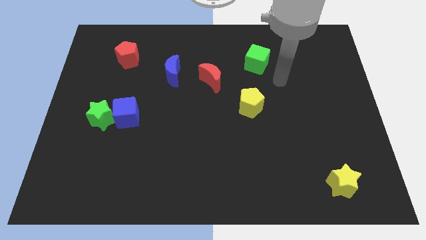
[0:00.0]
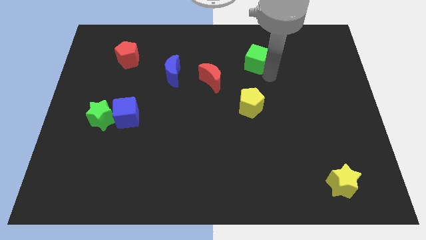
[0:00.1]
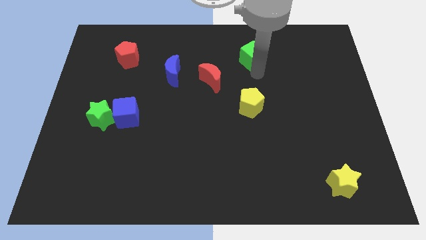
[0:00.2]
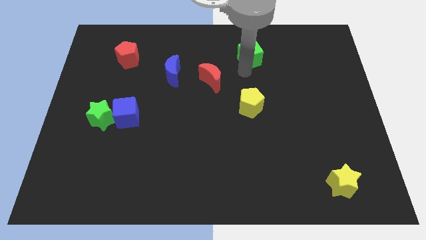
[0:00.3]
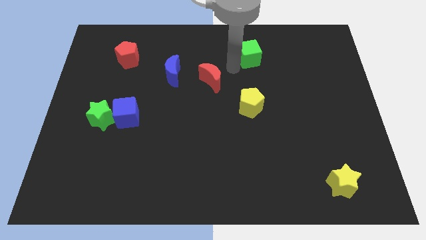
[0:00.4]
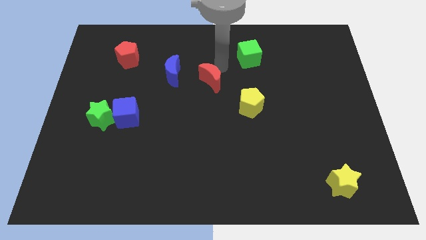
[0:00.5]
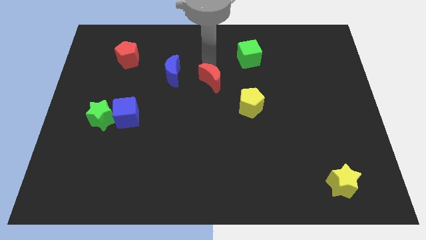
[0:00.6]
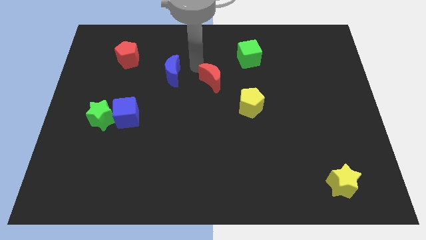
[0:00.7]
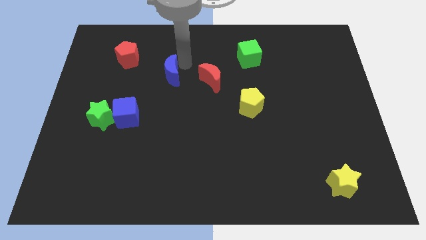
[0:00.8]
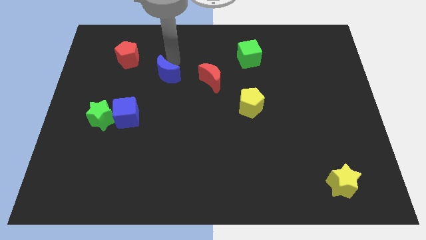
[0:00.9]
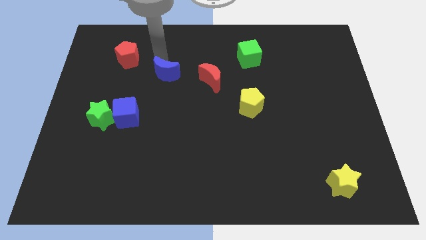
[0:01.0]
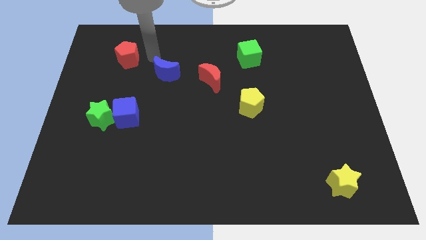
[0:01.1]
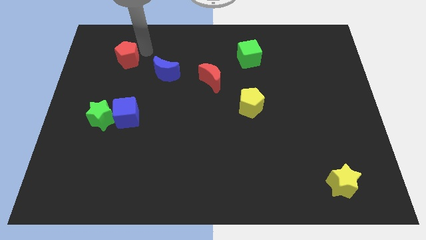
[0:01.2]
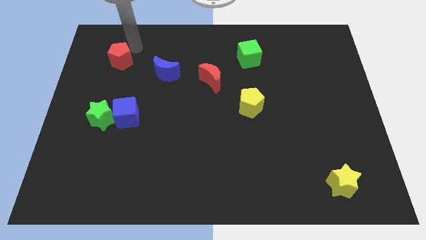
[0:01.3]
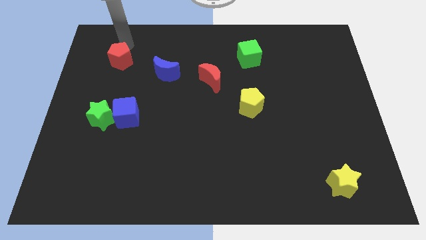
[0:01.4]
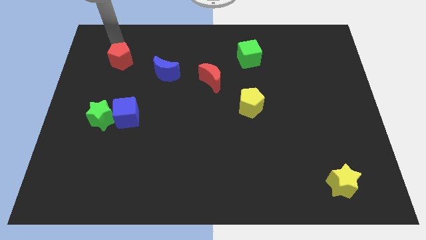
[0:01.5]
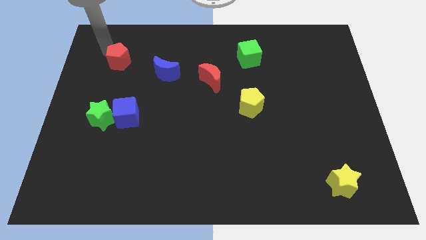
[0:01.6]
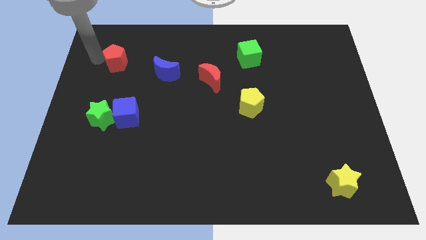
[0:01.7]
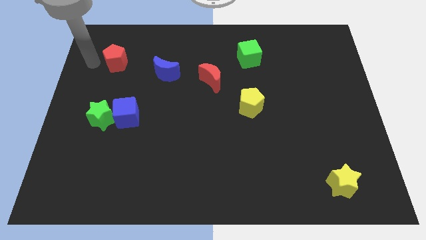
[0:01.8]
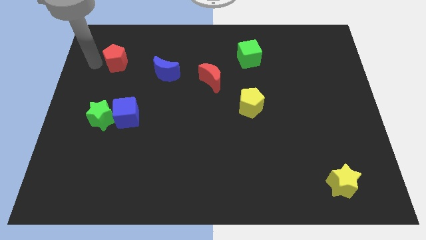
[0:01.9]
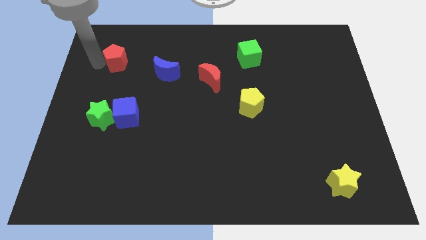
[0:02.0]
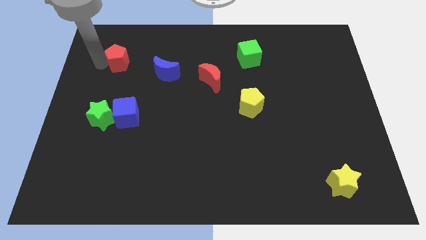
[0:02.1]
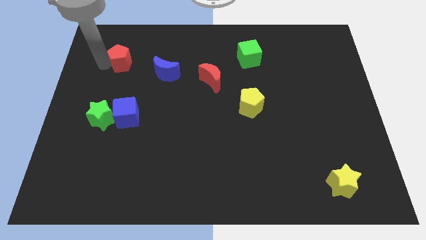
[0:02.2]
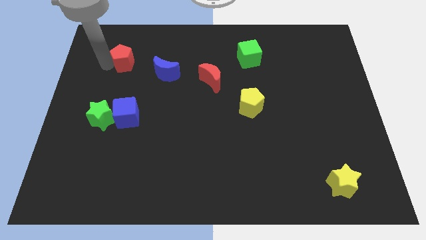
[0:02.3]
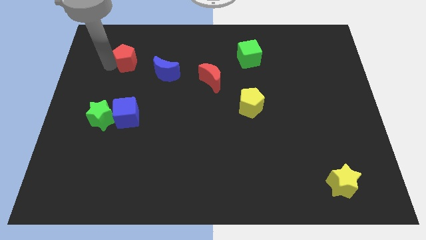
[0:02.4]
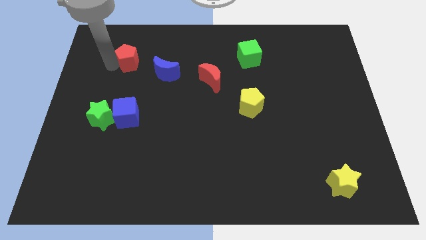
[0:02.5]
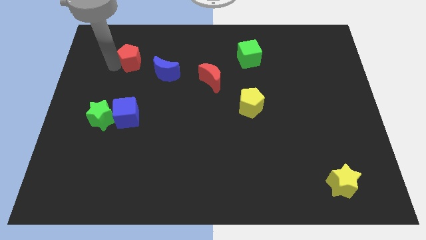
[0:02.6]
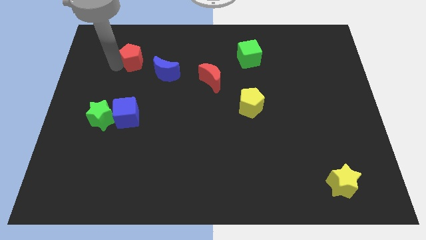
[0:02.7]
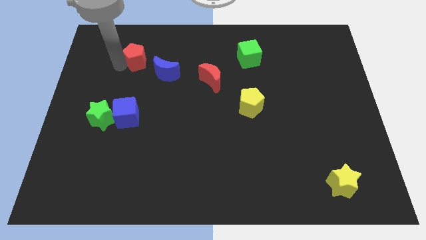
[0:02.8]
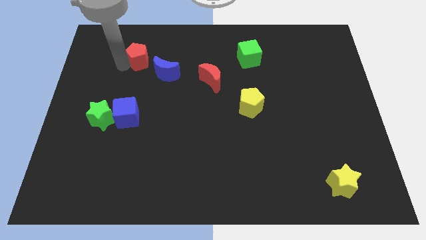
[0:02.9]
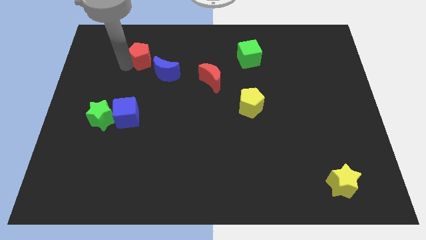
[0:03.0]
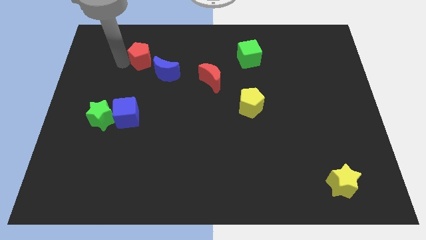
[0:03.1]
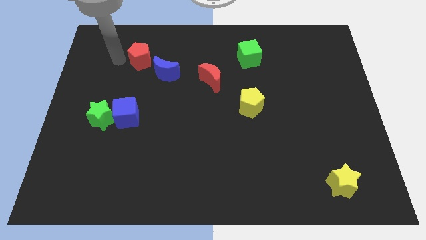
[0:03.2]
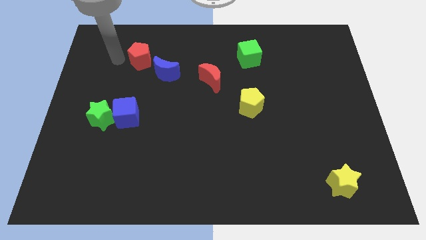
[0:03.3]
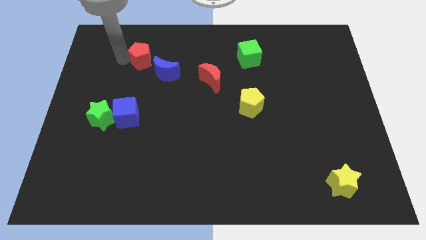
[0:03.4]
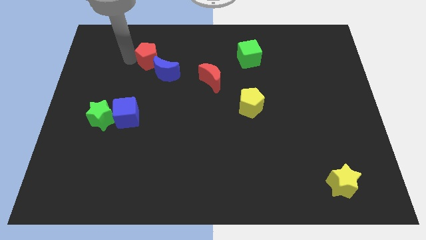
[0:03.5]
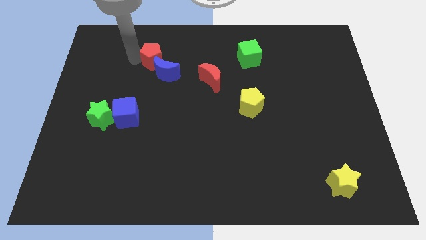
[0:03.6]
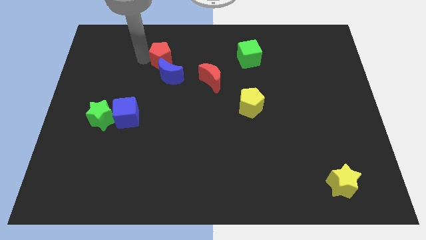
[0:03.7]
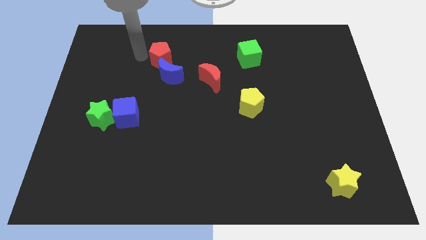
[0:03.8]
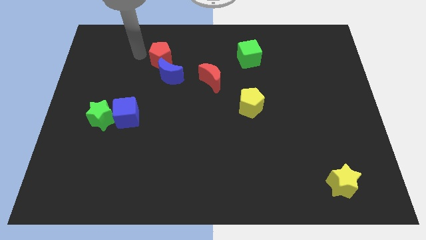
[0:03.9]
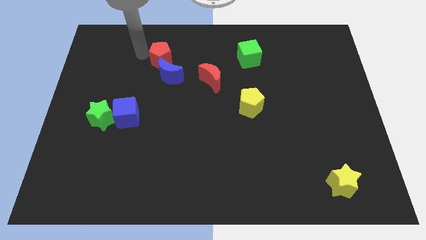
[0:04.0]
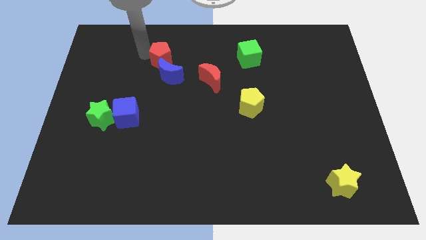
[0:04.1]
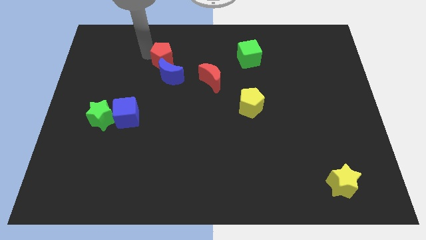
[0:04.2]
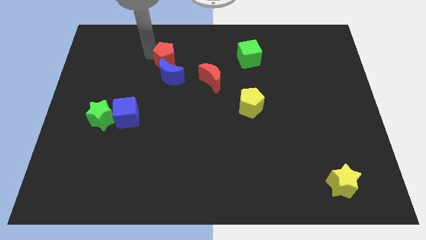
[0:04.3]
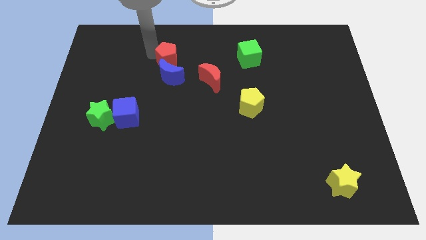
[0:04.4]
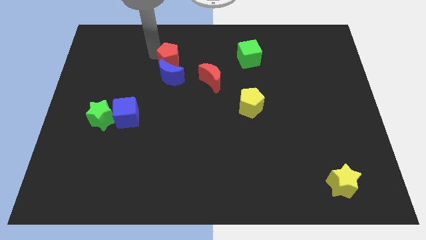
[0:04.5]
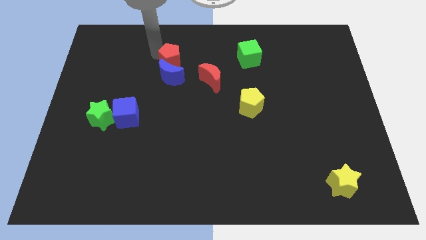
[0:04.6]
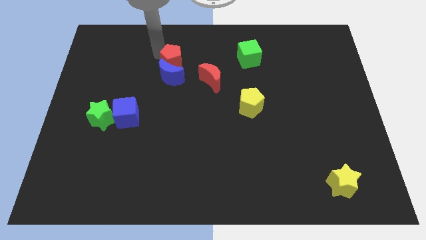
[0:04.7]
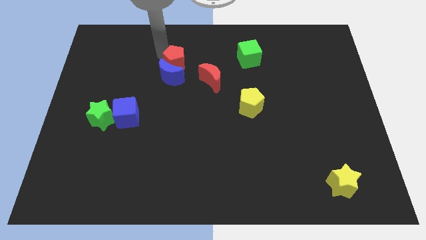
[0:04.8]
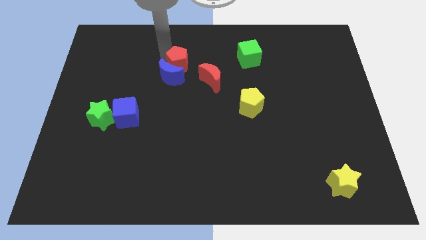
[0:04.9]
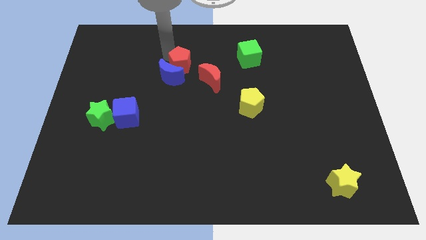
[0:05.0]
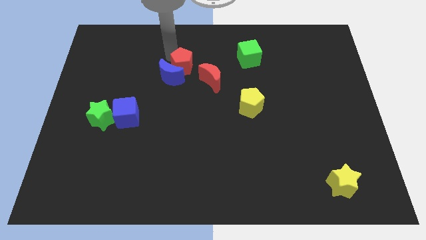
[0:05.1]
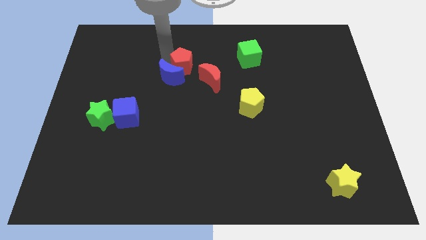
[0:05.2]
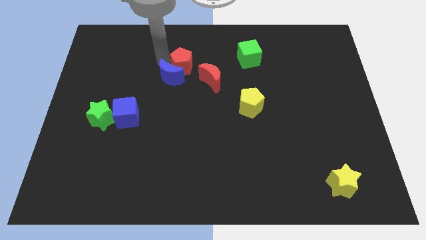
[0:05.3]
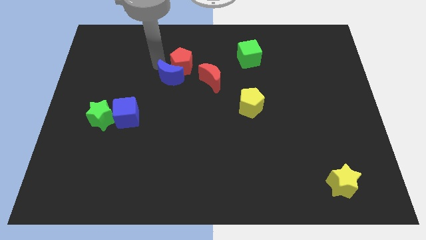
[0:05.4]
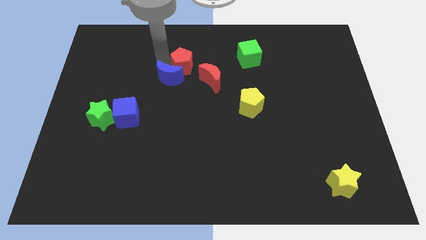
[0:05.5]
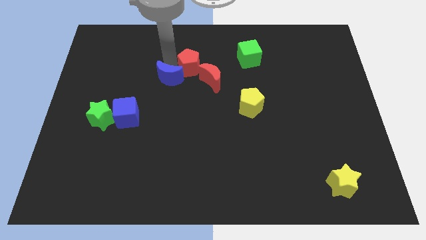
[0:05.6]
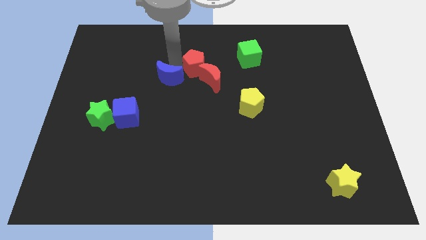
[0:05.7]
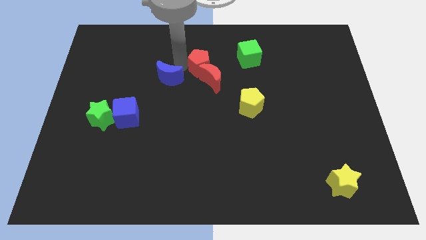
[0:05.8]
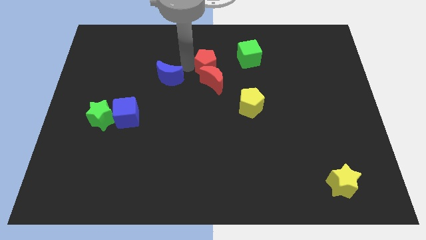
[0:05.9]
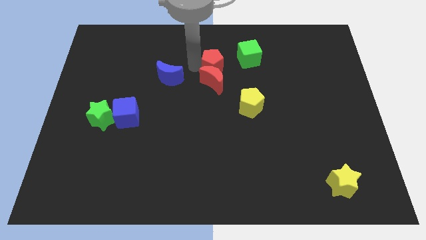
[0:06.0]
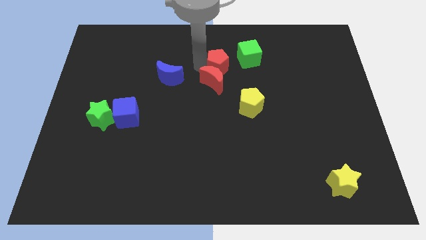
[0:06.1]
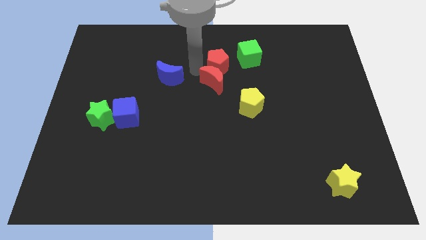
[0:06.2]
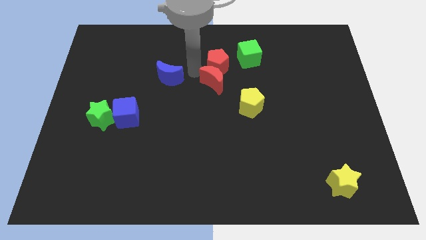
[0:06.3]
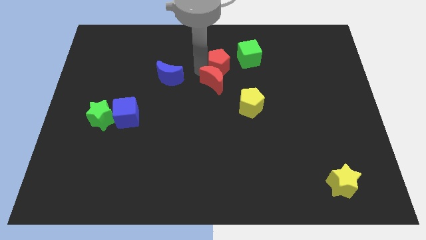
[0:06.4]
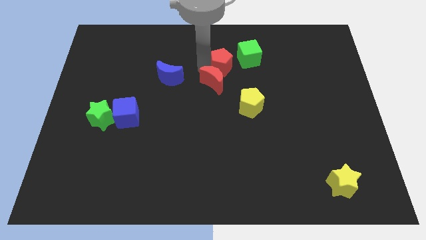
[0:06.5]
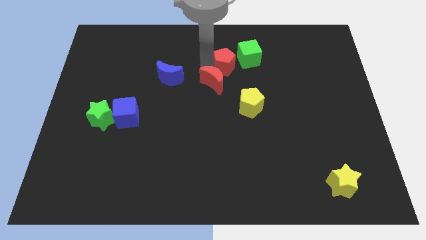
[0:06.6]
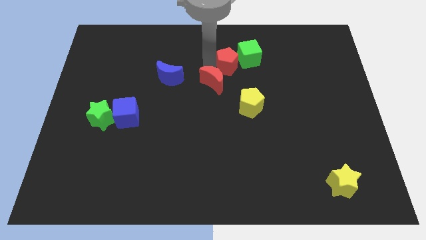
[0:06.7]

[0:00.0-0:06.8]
put the red pentagon to the green cube

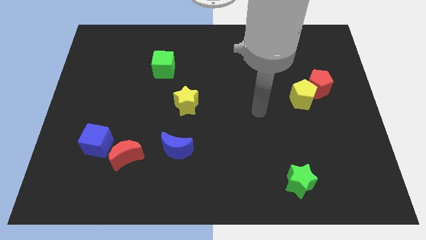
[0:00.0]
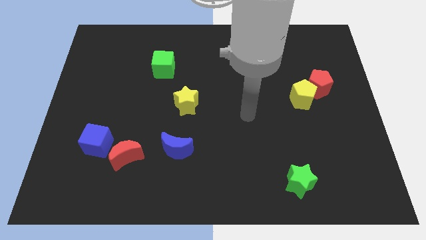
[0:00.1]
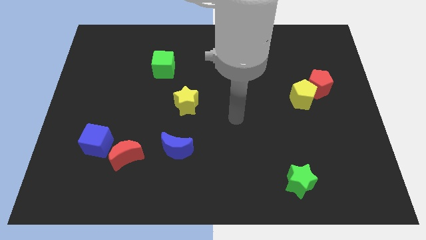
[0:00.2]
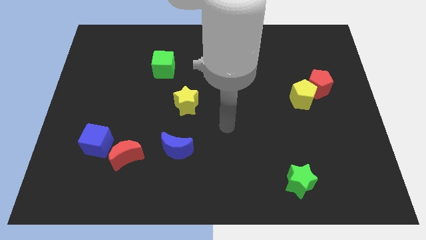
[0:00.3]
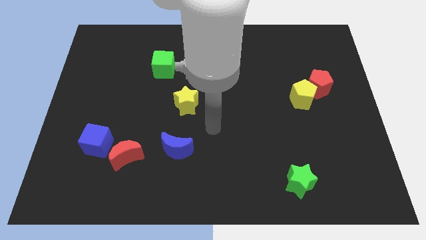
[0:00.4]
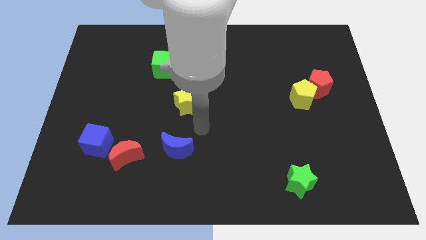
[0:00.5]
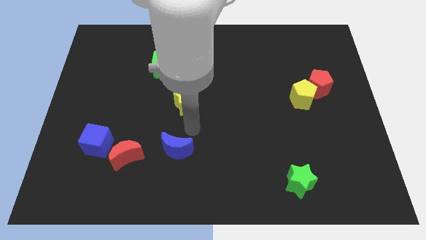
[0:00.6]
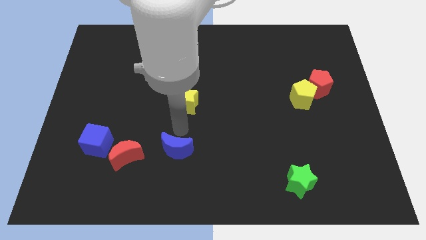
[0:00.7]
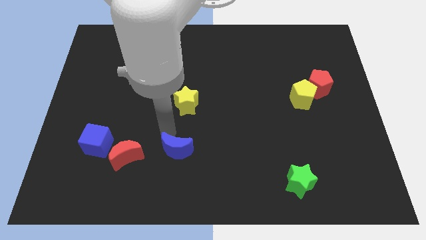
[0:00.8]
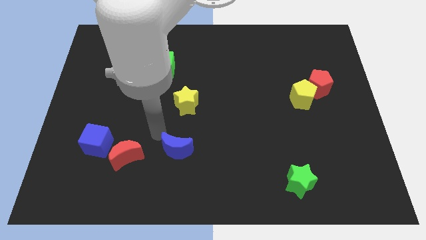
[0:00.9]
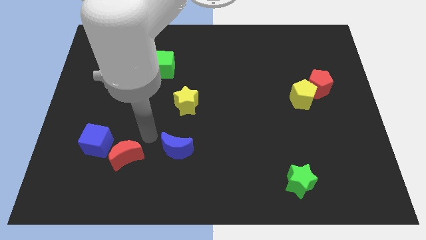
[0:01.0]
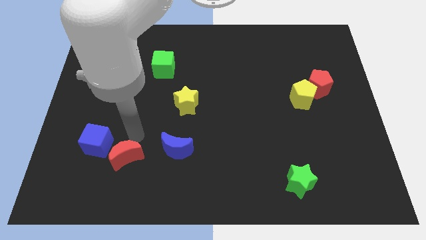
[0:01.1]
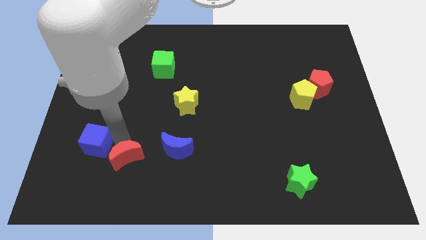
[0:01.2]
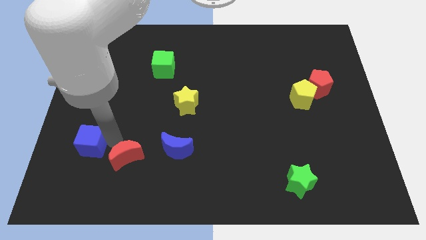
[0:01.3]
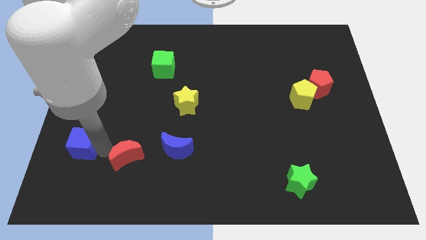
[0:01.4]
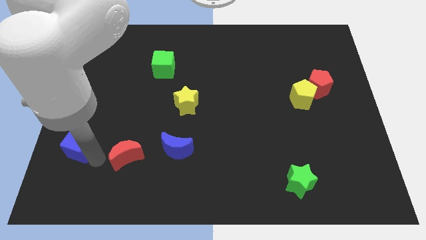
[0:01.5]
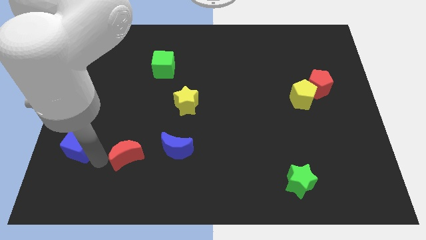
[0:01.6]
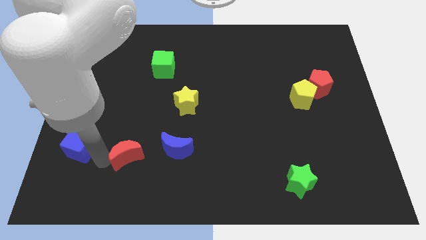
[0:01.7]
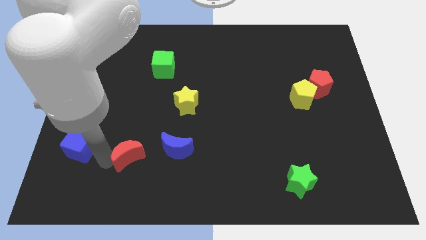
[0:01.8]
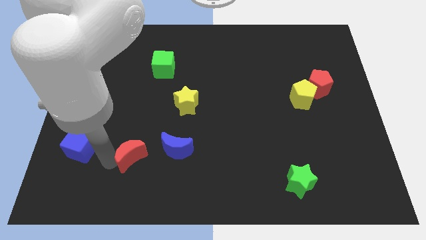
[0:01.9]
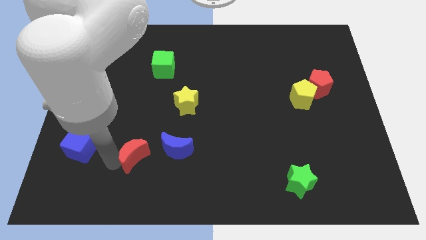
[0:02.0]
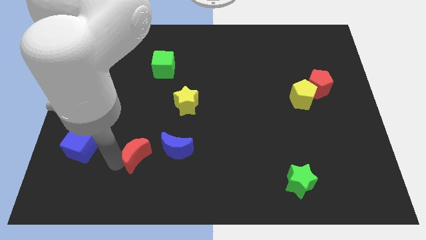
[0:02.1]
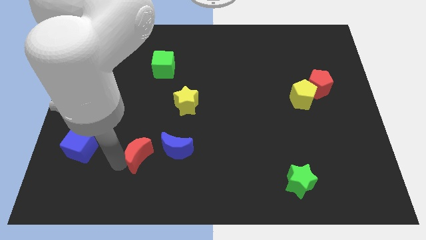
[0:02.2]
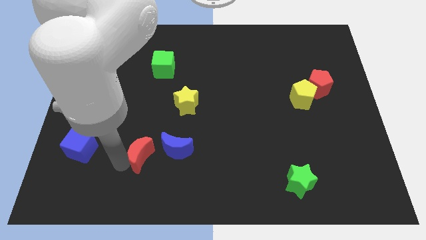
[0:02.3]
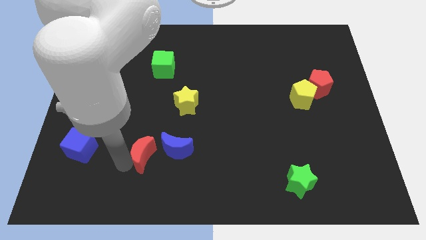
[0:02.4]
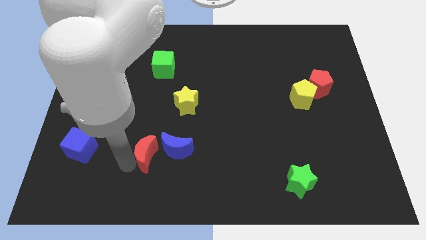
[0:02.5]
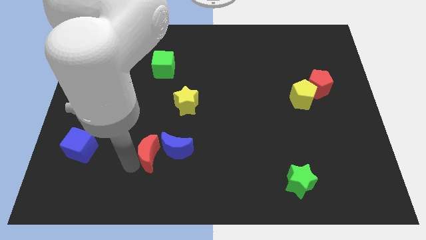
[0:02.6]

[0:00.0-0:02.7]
move the red moon to the blue moon
